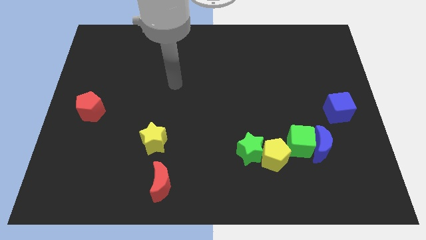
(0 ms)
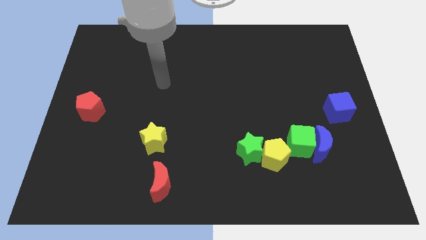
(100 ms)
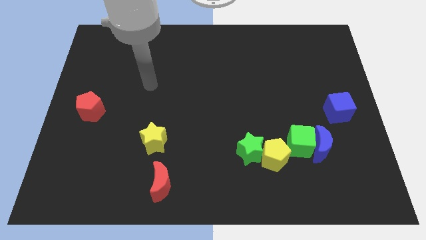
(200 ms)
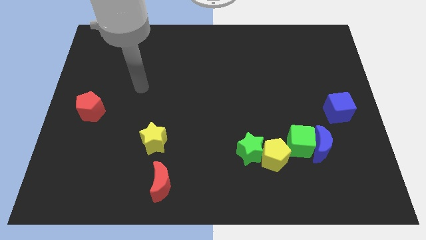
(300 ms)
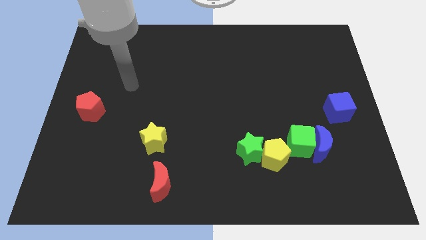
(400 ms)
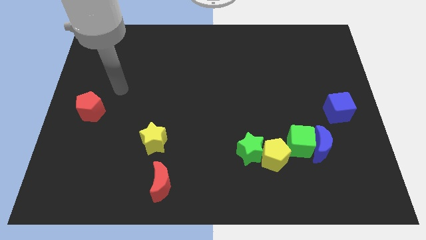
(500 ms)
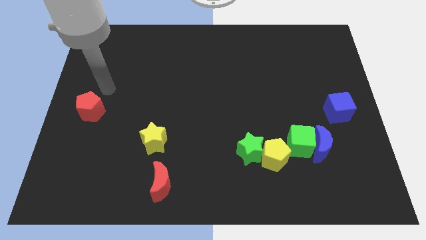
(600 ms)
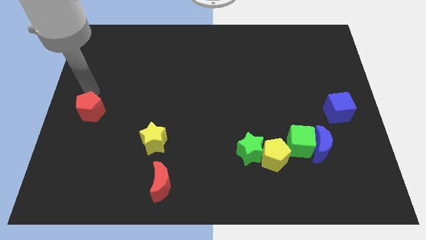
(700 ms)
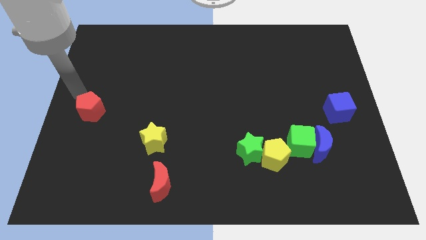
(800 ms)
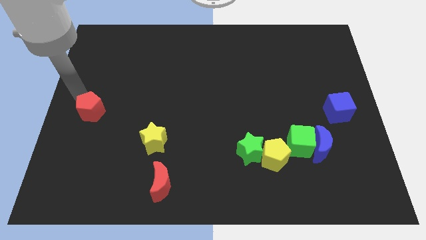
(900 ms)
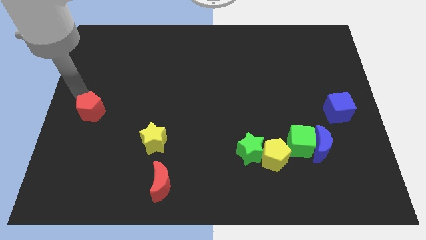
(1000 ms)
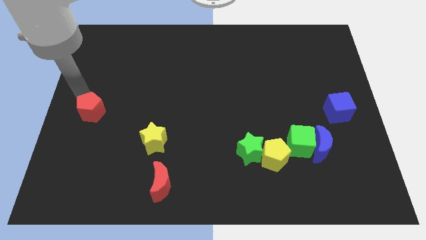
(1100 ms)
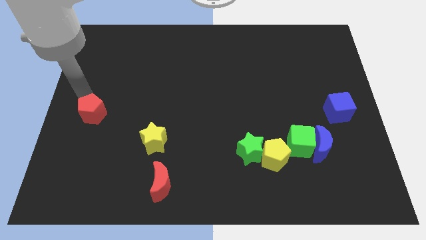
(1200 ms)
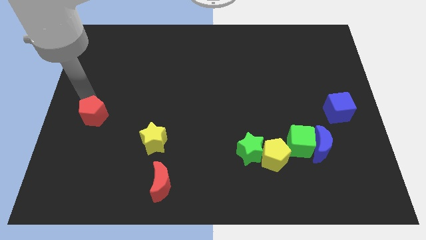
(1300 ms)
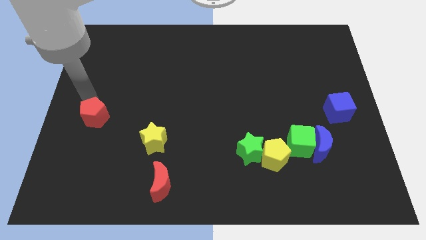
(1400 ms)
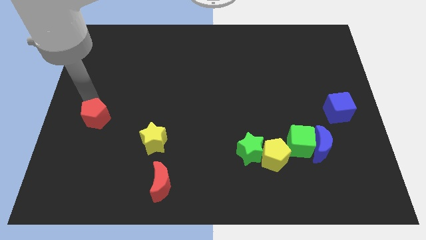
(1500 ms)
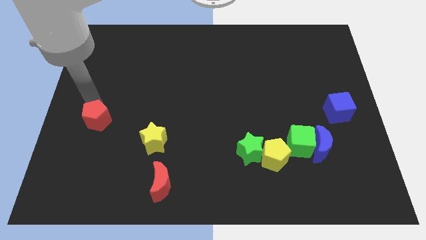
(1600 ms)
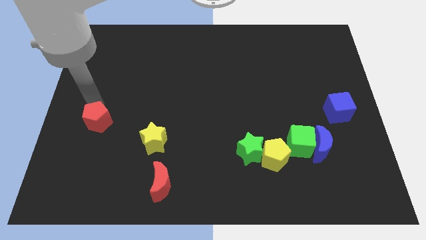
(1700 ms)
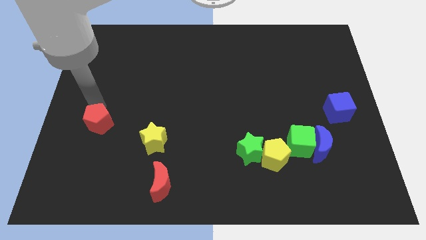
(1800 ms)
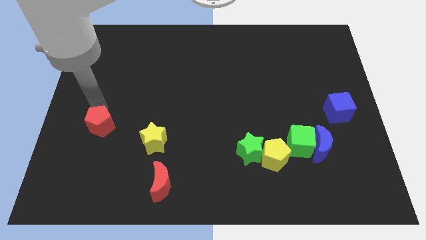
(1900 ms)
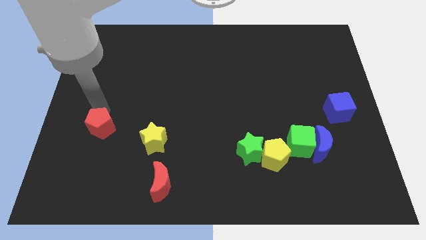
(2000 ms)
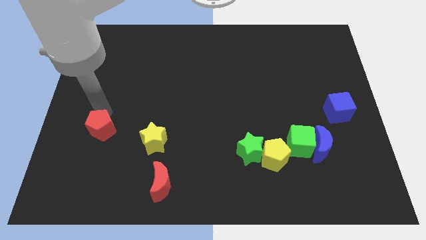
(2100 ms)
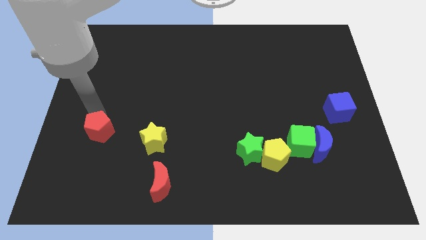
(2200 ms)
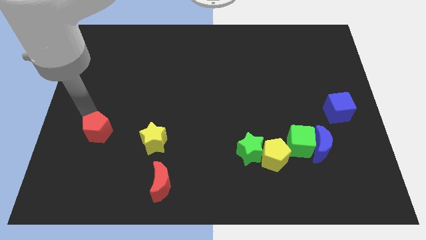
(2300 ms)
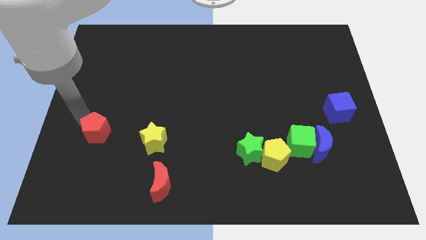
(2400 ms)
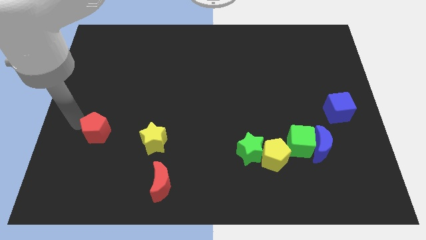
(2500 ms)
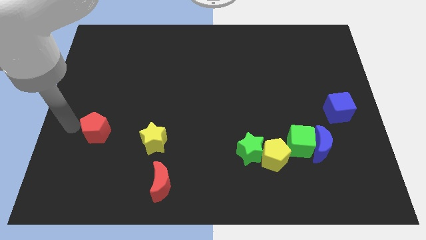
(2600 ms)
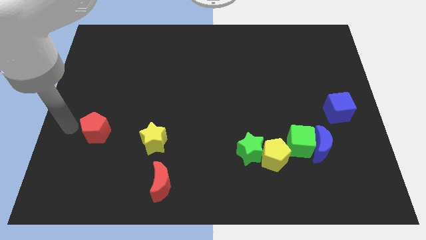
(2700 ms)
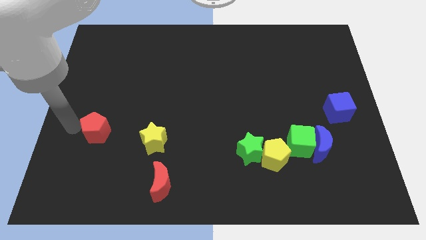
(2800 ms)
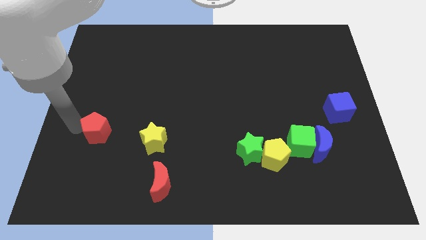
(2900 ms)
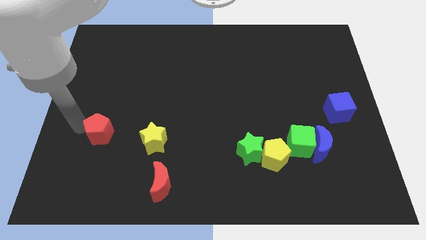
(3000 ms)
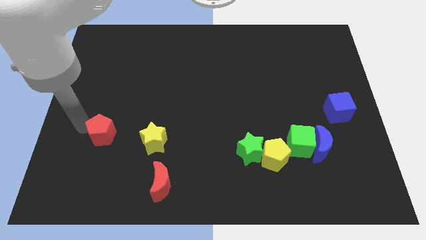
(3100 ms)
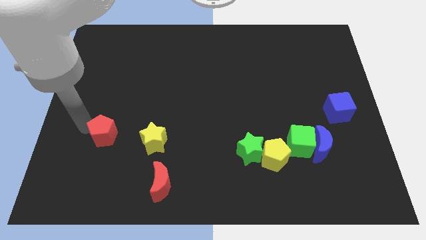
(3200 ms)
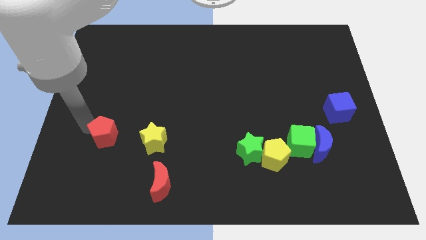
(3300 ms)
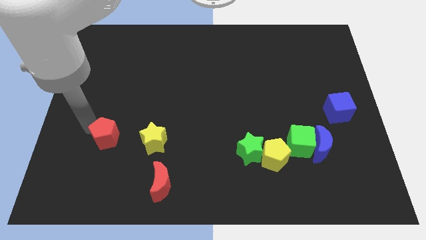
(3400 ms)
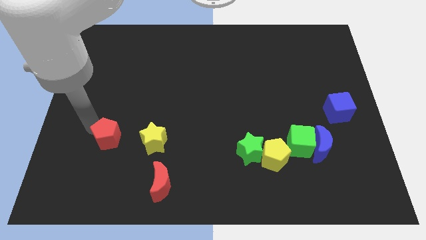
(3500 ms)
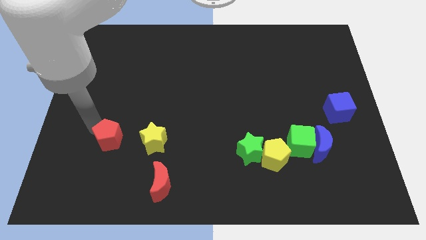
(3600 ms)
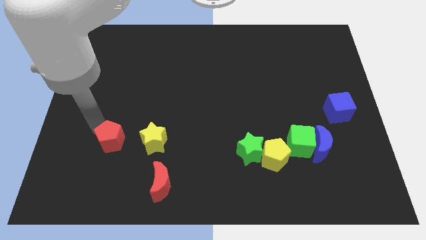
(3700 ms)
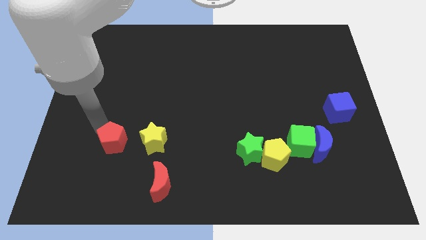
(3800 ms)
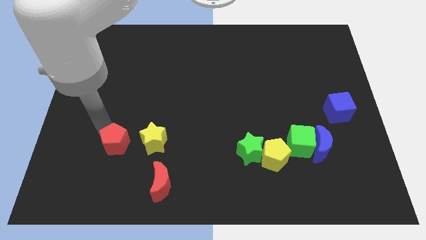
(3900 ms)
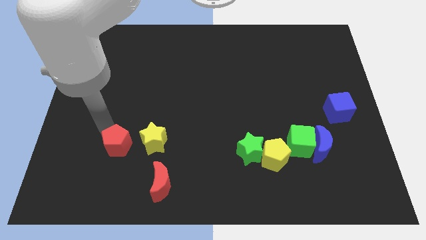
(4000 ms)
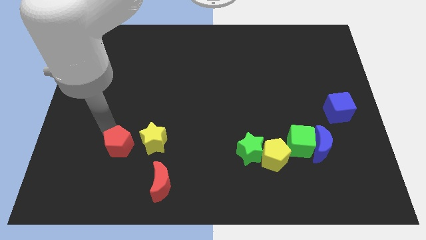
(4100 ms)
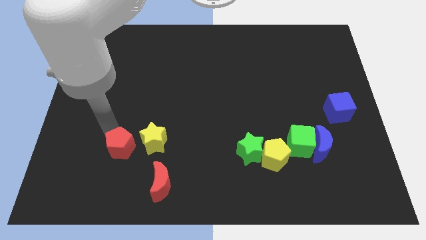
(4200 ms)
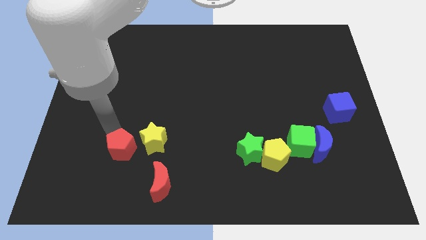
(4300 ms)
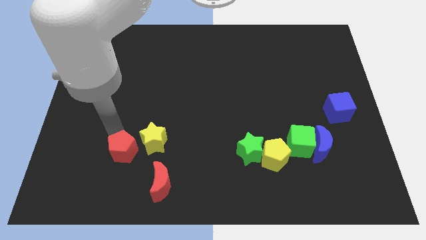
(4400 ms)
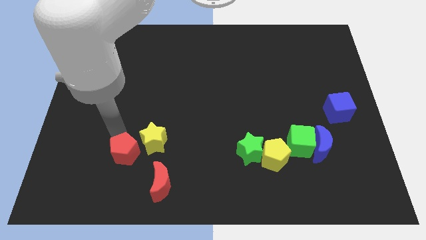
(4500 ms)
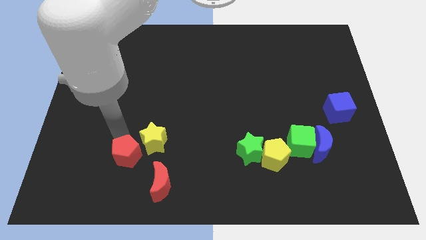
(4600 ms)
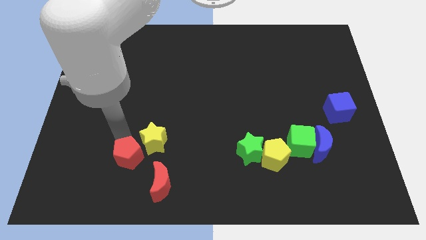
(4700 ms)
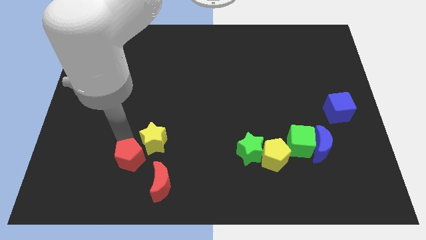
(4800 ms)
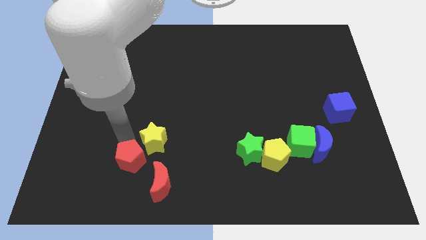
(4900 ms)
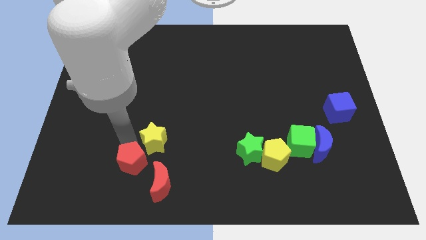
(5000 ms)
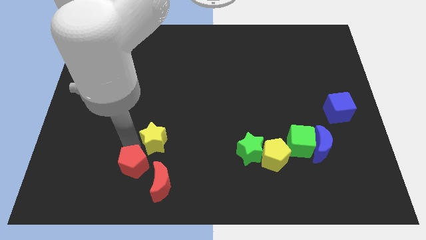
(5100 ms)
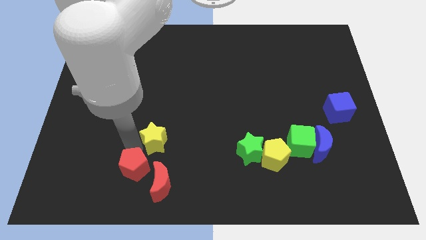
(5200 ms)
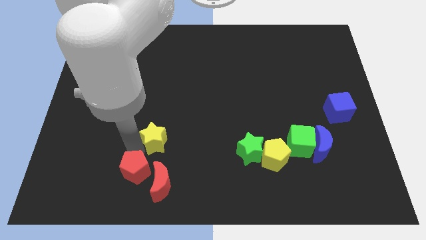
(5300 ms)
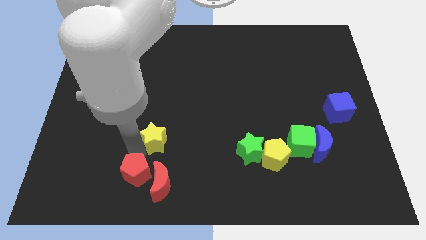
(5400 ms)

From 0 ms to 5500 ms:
put the red pentagon close to the red moon

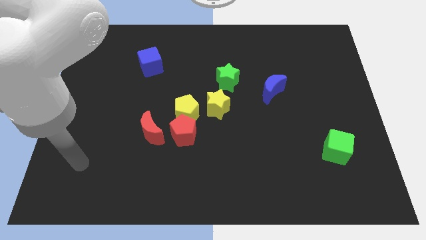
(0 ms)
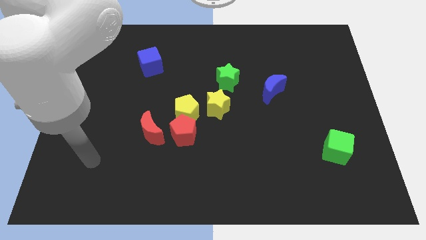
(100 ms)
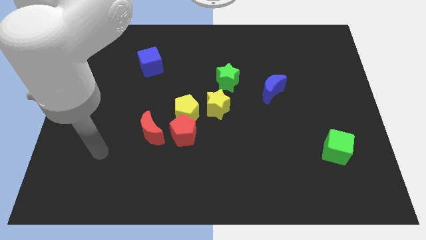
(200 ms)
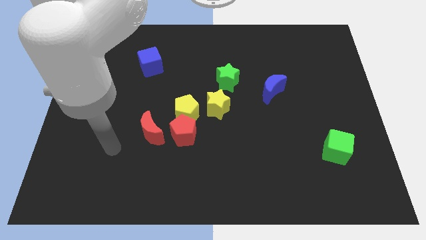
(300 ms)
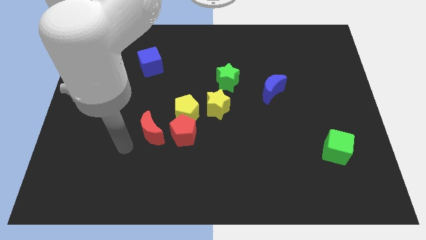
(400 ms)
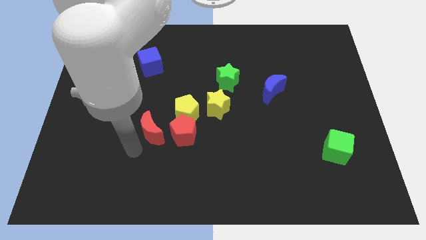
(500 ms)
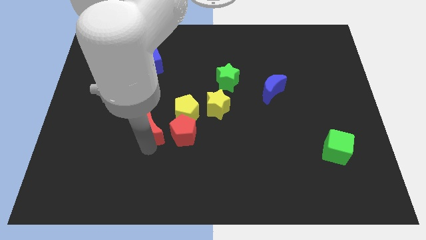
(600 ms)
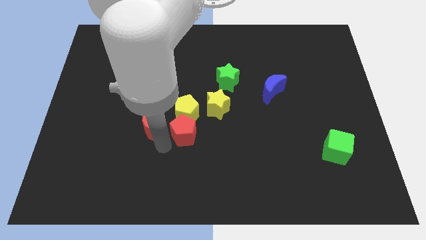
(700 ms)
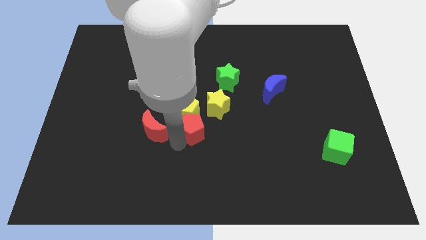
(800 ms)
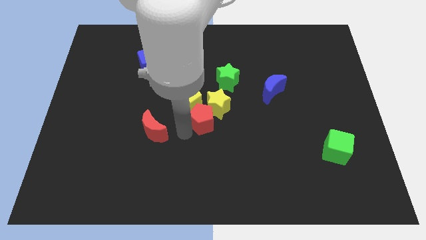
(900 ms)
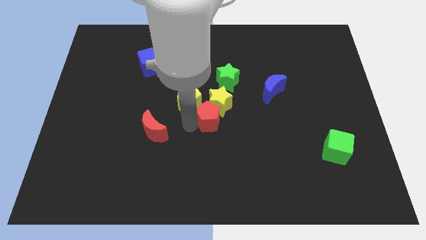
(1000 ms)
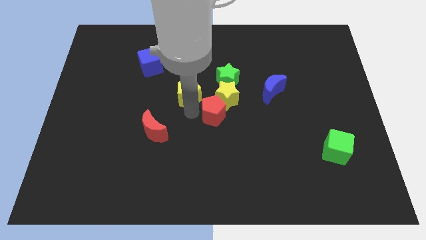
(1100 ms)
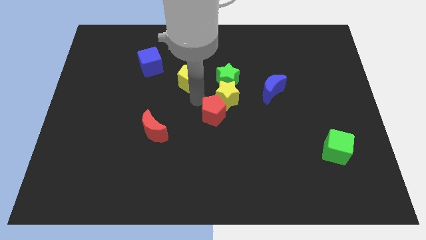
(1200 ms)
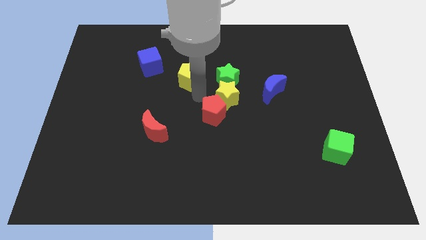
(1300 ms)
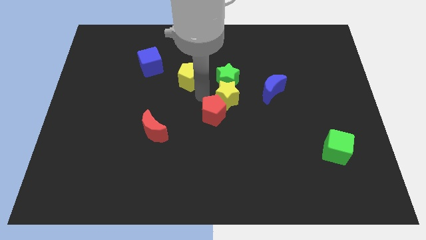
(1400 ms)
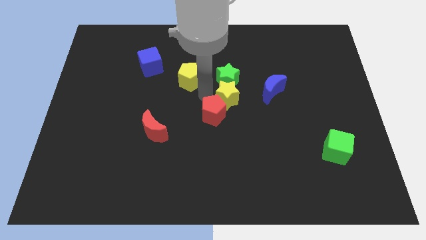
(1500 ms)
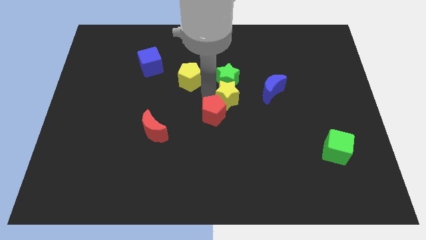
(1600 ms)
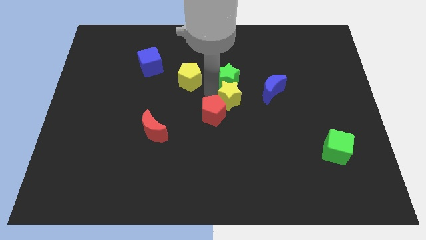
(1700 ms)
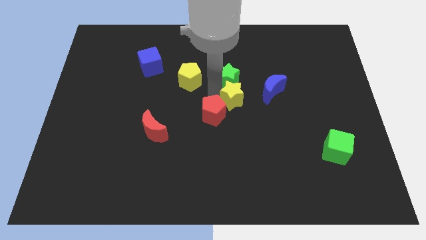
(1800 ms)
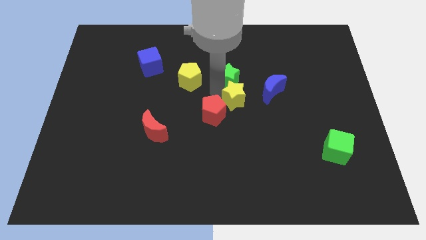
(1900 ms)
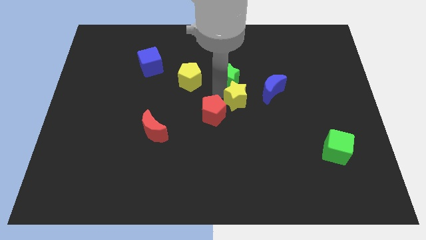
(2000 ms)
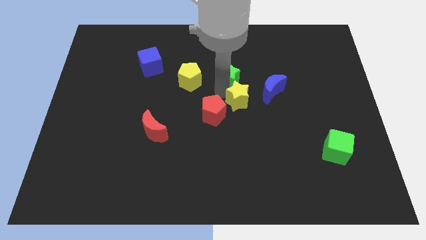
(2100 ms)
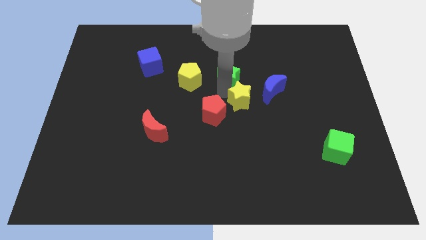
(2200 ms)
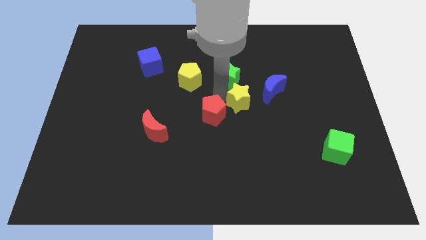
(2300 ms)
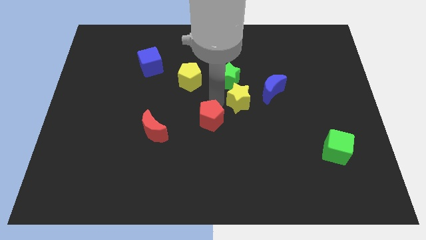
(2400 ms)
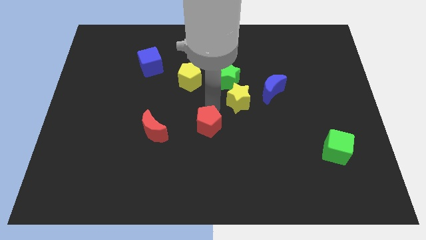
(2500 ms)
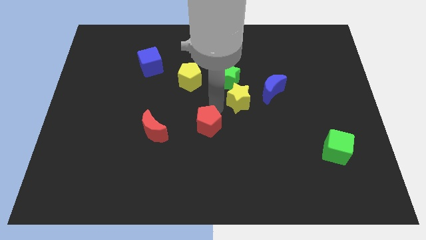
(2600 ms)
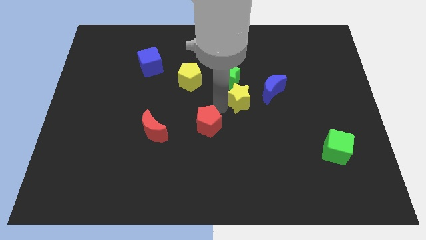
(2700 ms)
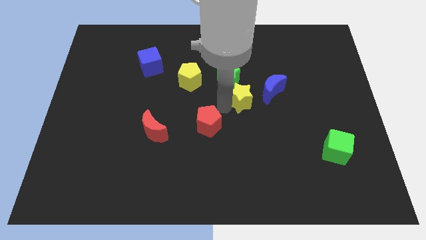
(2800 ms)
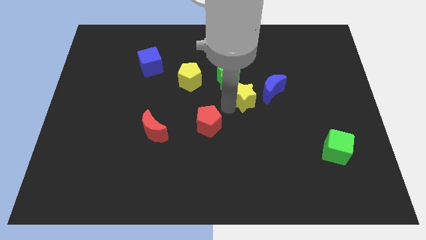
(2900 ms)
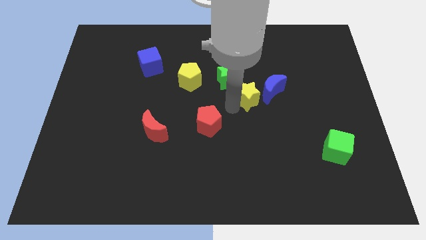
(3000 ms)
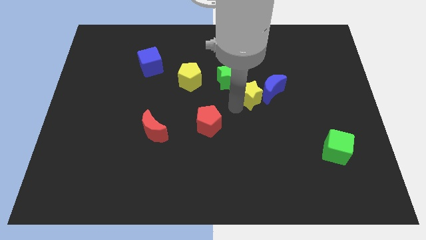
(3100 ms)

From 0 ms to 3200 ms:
put the yellow star to the blue moon
